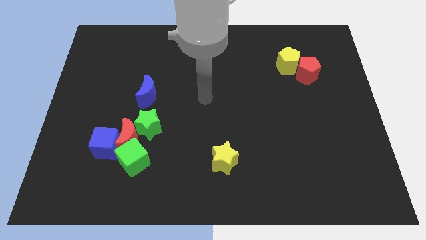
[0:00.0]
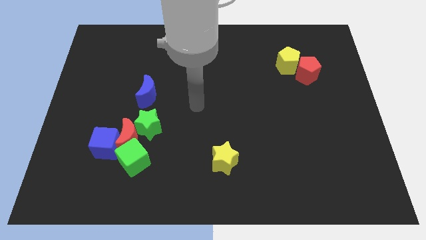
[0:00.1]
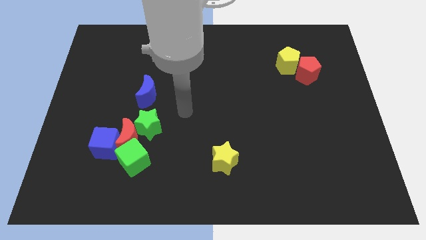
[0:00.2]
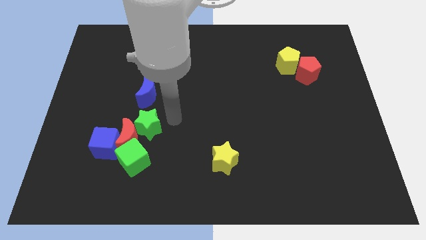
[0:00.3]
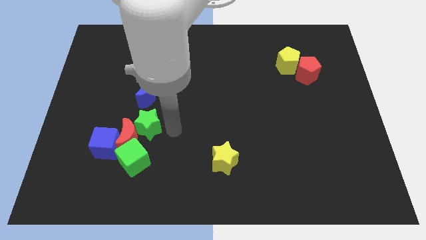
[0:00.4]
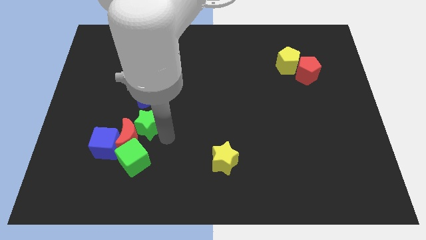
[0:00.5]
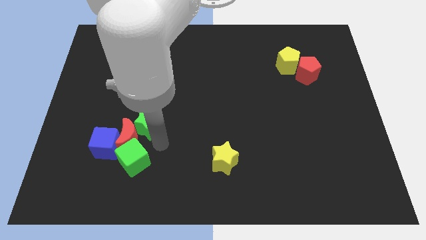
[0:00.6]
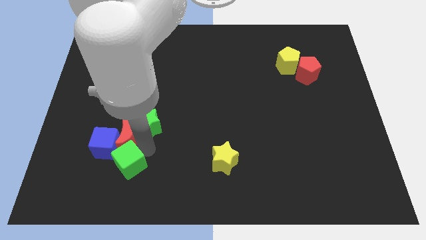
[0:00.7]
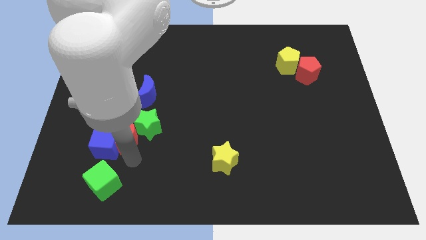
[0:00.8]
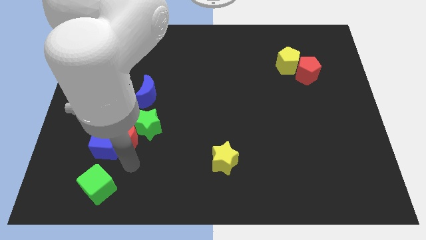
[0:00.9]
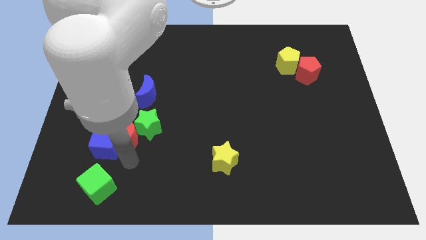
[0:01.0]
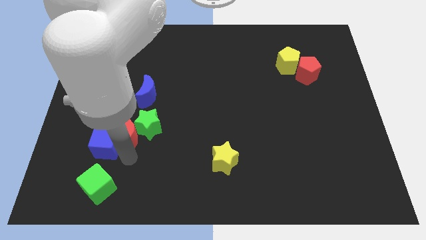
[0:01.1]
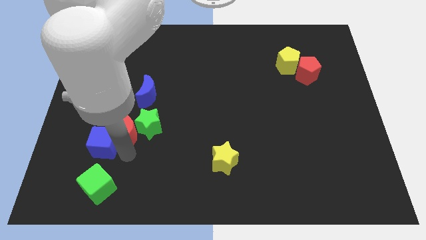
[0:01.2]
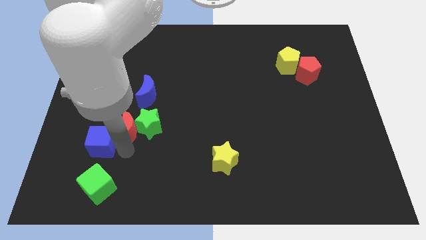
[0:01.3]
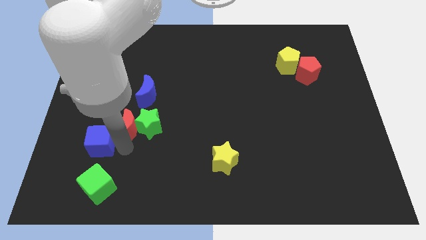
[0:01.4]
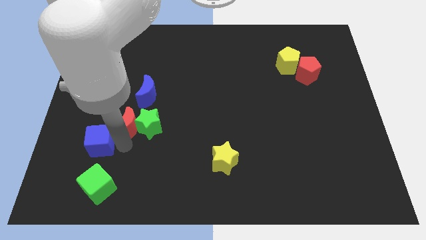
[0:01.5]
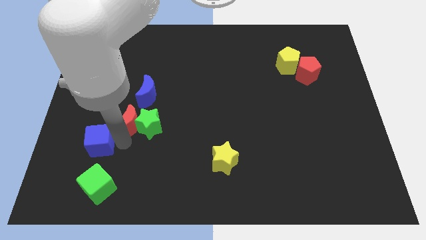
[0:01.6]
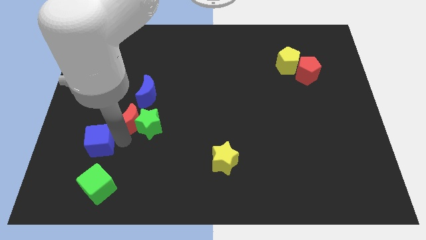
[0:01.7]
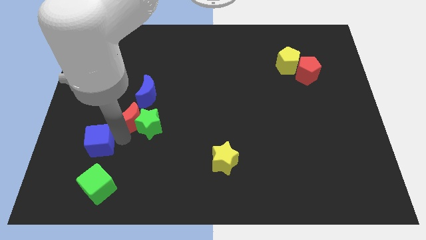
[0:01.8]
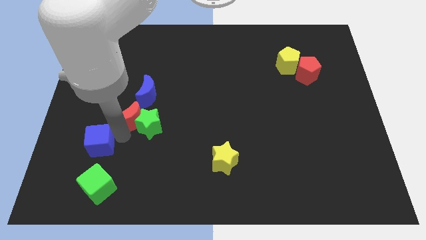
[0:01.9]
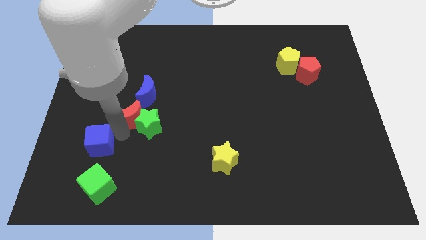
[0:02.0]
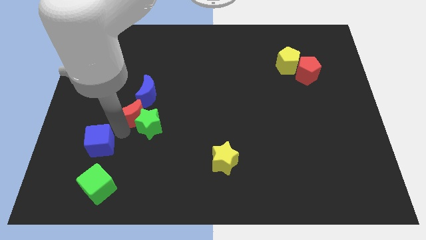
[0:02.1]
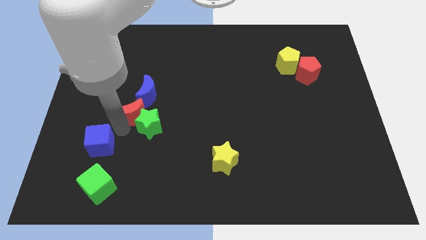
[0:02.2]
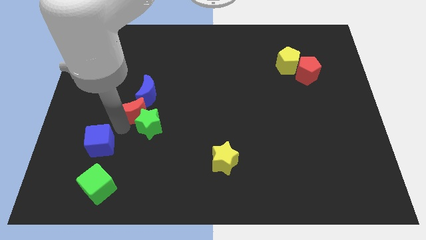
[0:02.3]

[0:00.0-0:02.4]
move the red moon away from the clump

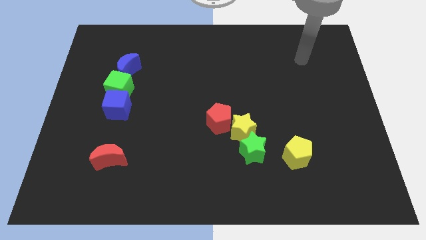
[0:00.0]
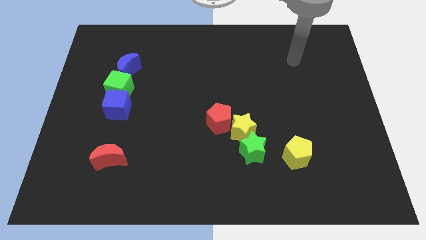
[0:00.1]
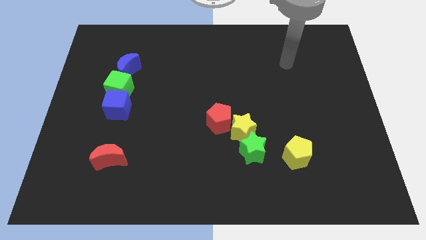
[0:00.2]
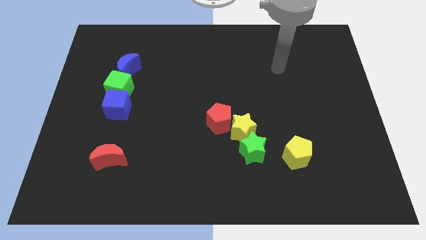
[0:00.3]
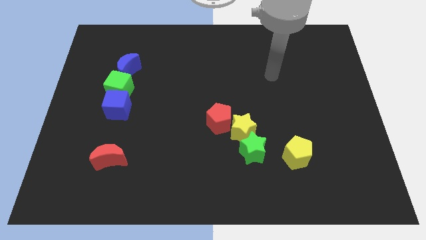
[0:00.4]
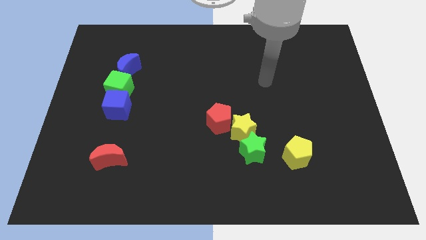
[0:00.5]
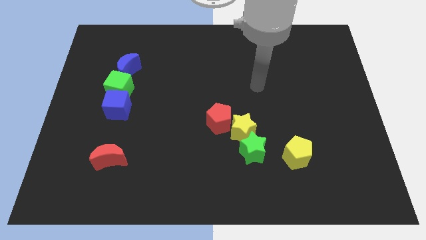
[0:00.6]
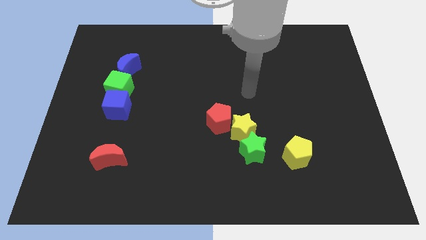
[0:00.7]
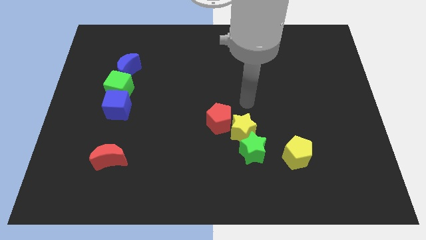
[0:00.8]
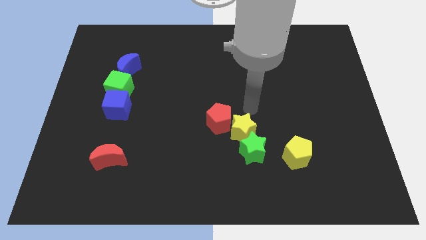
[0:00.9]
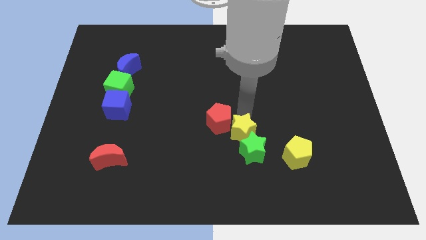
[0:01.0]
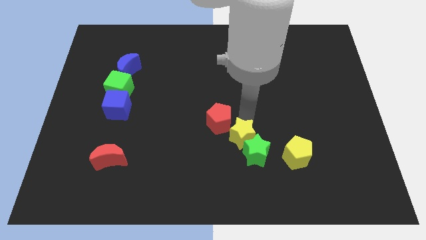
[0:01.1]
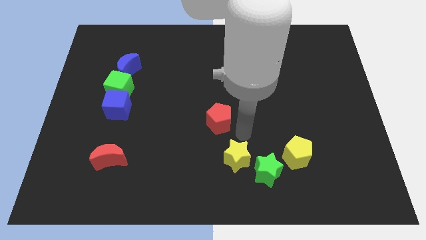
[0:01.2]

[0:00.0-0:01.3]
pull the red pentagon apart from the yellow star

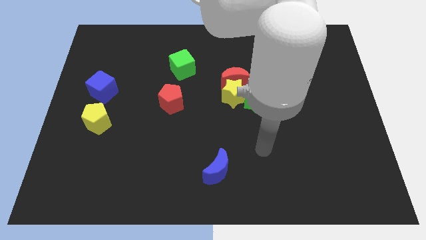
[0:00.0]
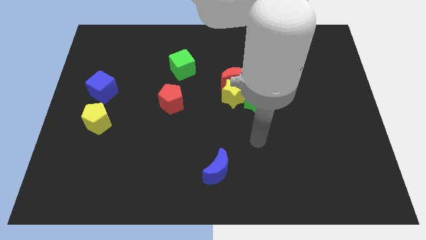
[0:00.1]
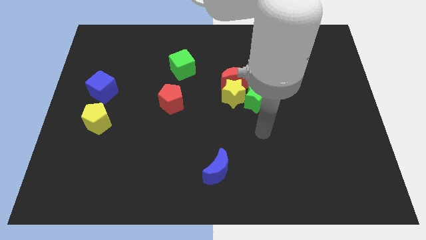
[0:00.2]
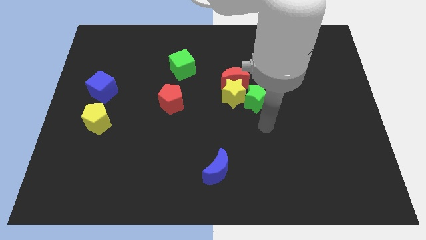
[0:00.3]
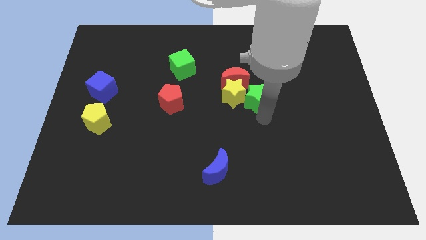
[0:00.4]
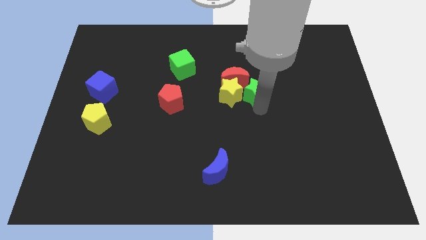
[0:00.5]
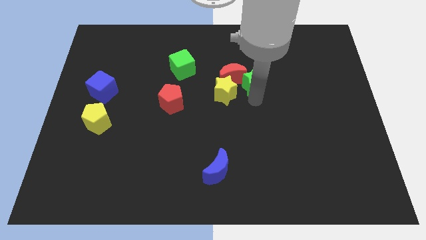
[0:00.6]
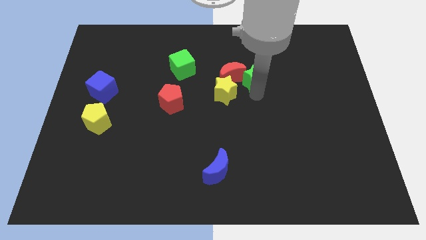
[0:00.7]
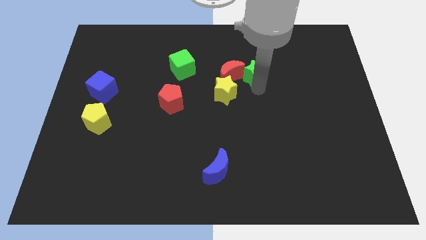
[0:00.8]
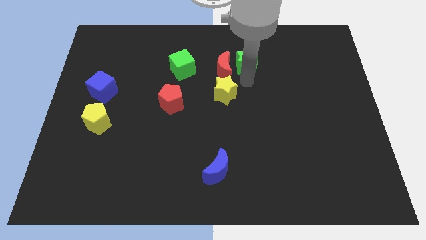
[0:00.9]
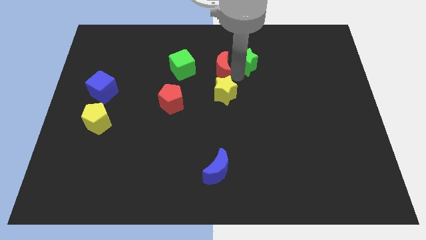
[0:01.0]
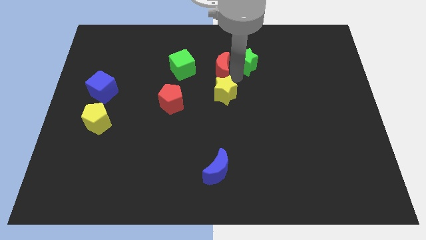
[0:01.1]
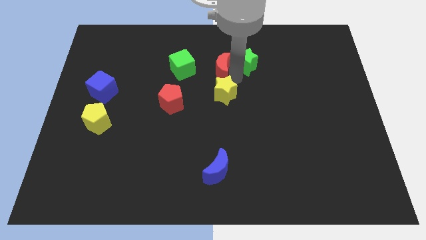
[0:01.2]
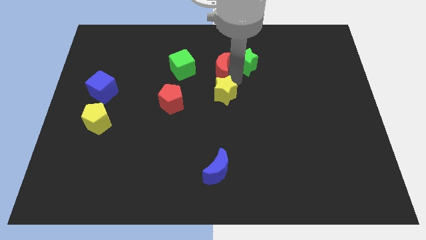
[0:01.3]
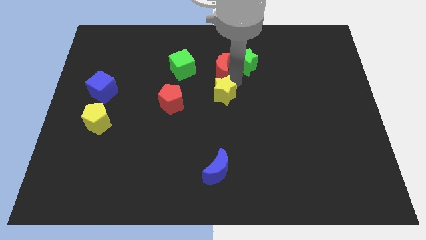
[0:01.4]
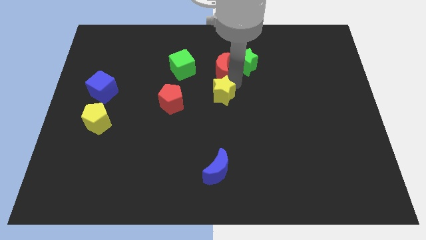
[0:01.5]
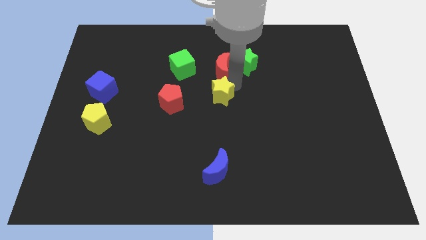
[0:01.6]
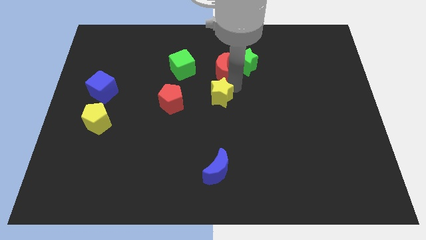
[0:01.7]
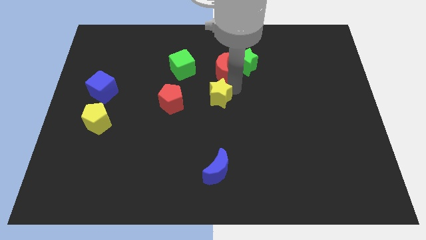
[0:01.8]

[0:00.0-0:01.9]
separate the yellow star from the red moon and green star

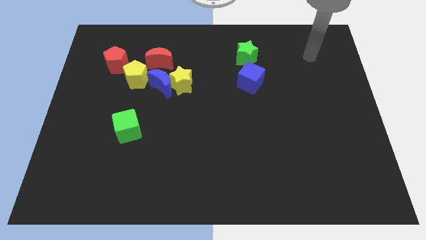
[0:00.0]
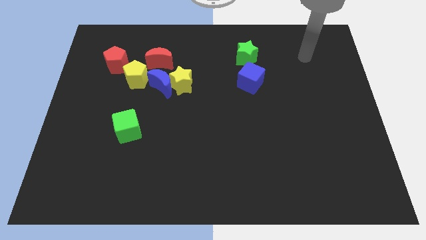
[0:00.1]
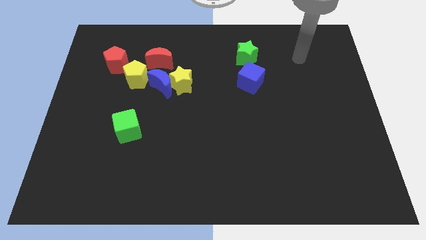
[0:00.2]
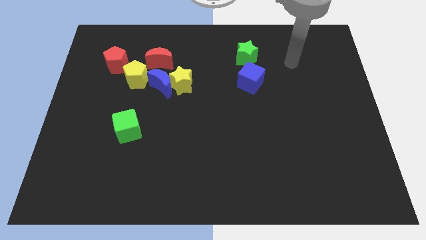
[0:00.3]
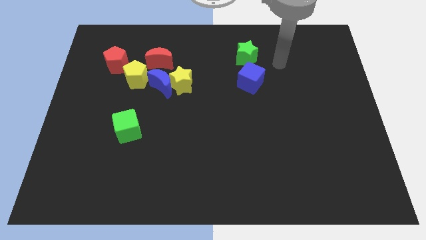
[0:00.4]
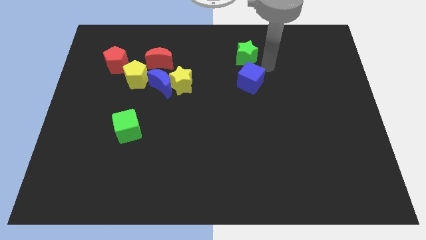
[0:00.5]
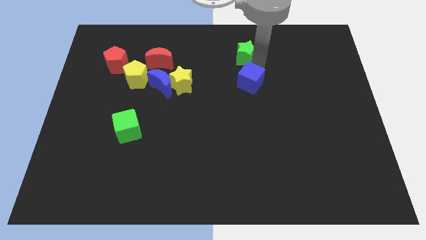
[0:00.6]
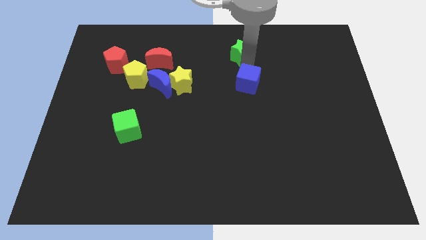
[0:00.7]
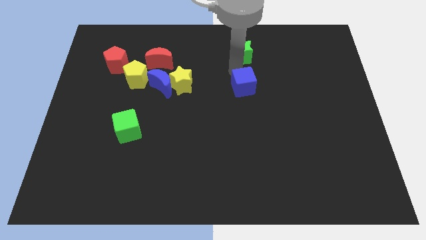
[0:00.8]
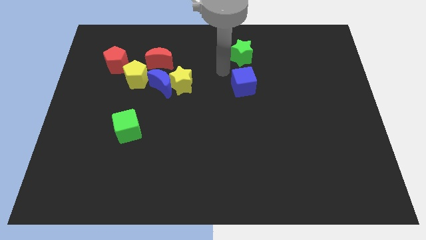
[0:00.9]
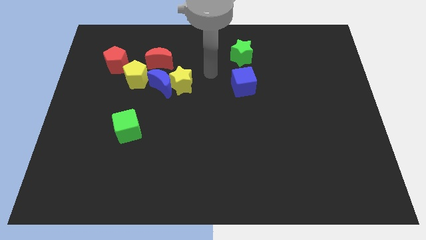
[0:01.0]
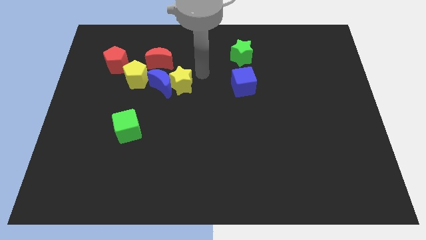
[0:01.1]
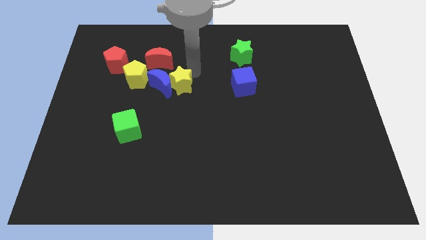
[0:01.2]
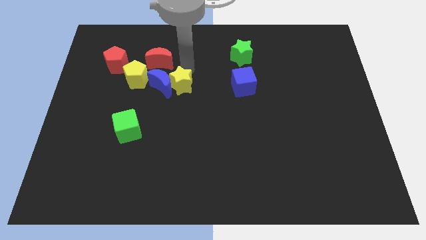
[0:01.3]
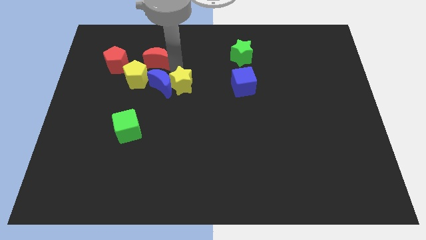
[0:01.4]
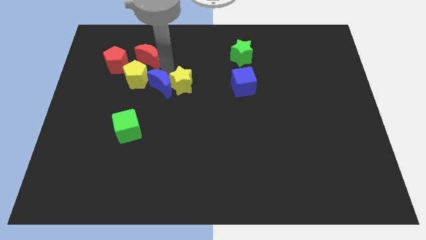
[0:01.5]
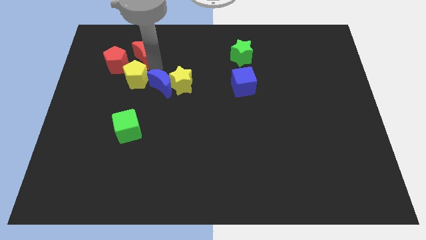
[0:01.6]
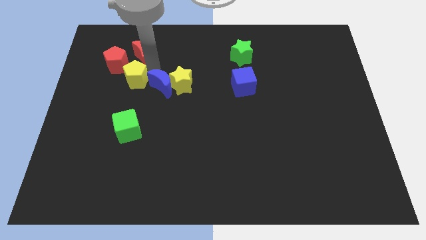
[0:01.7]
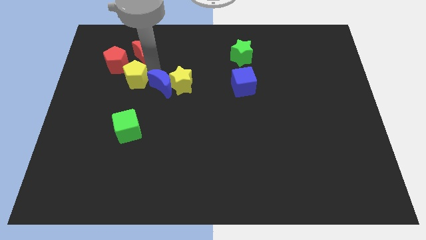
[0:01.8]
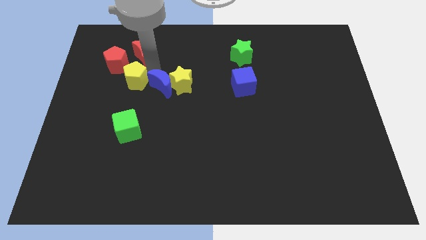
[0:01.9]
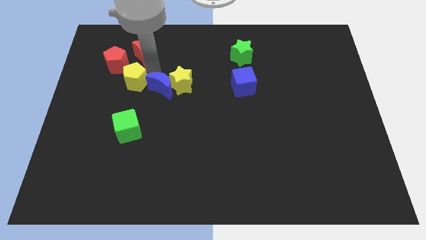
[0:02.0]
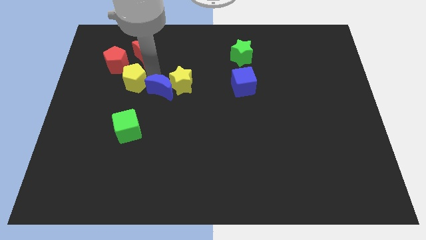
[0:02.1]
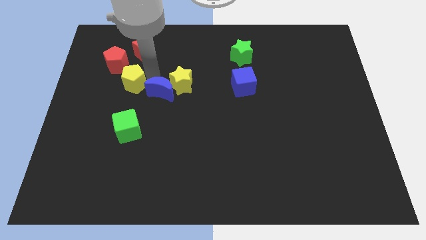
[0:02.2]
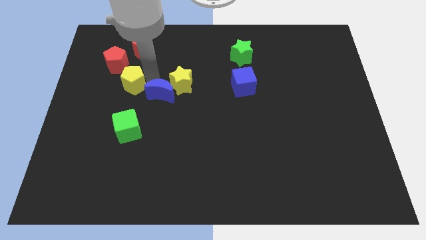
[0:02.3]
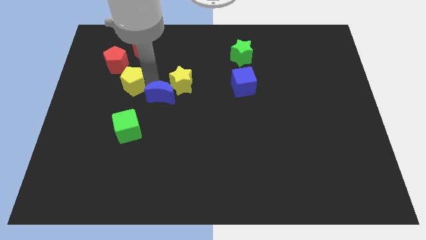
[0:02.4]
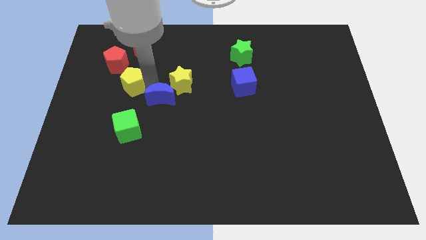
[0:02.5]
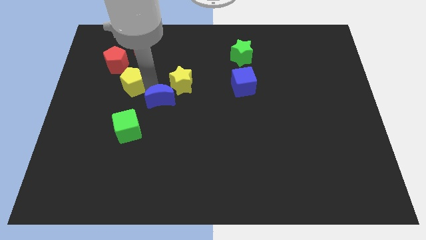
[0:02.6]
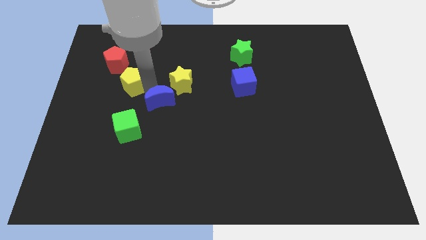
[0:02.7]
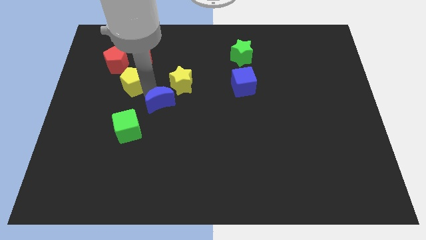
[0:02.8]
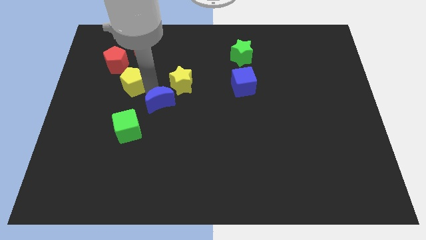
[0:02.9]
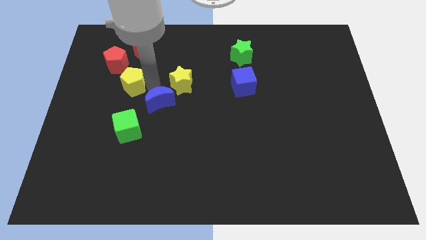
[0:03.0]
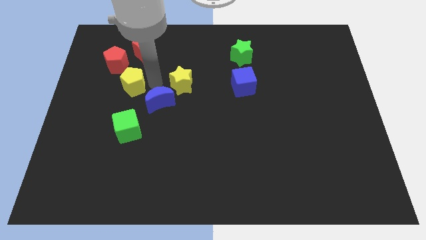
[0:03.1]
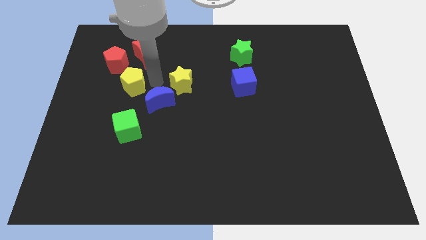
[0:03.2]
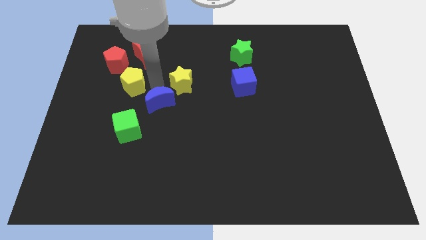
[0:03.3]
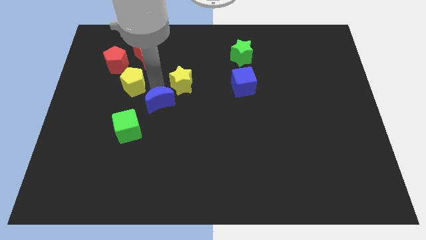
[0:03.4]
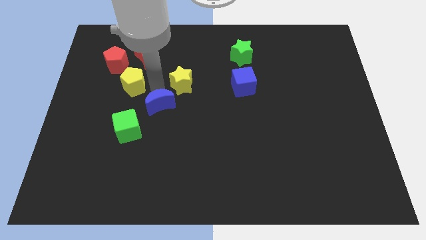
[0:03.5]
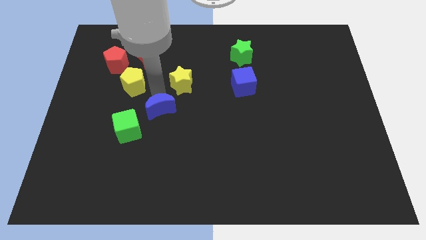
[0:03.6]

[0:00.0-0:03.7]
move the blue moon away from the group
